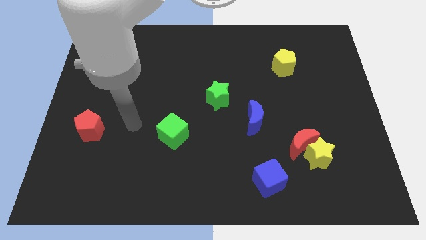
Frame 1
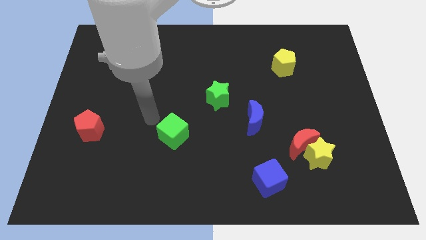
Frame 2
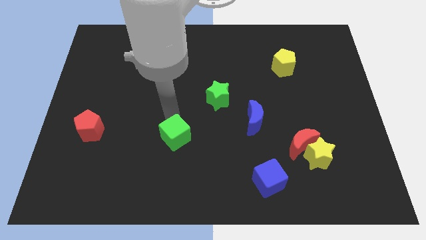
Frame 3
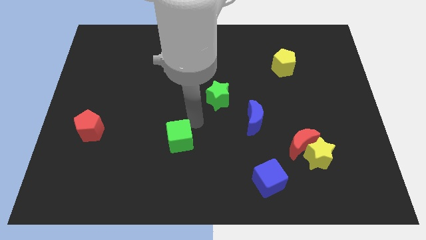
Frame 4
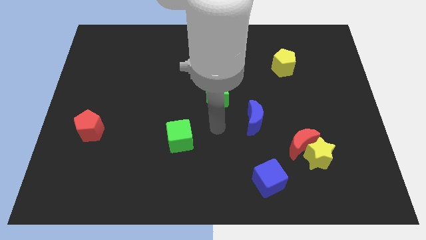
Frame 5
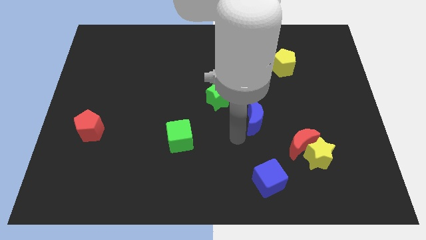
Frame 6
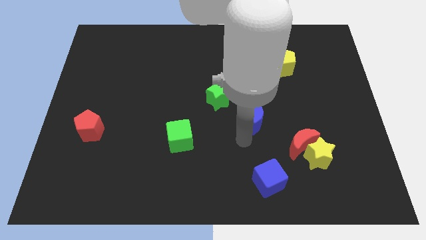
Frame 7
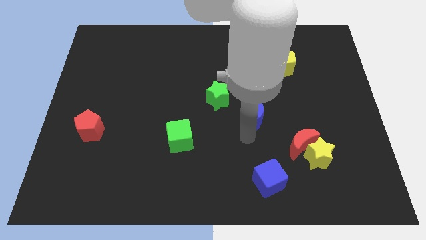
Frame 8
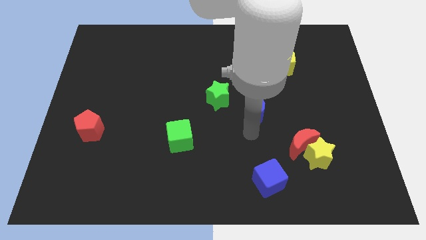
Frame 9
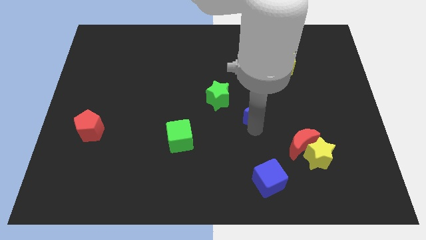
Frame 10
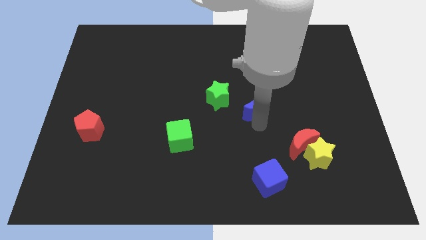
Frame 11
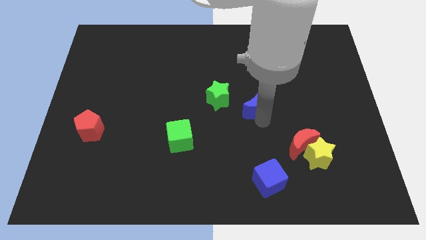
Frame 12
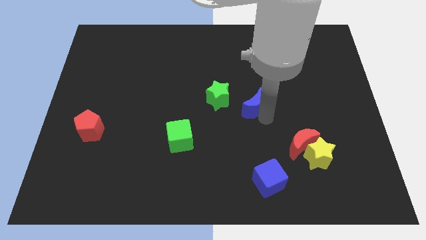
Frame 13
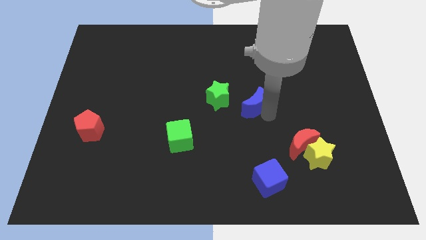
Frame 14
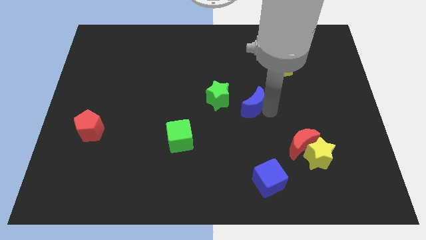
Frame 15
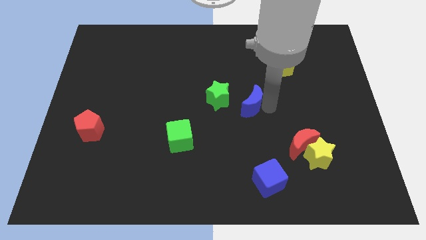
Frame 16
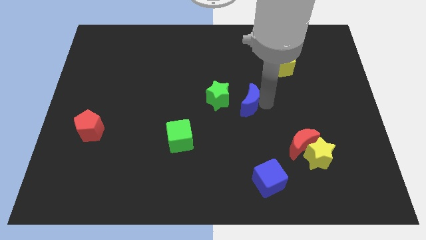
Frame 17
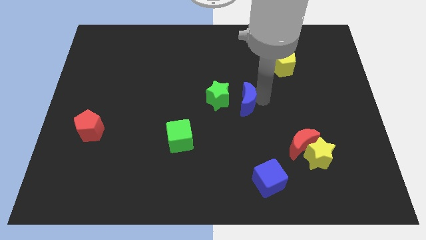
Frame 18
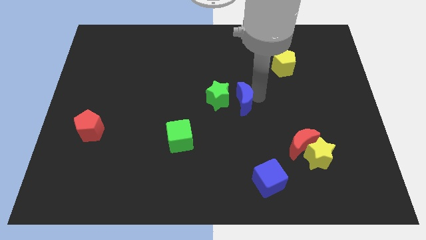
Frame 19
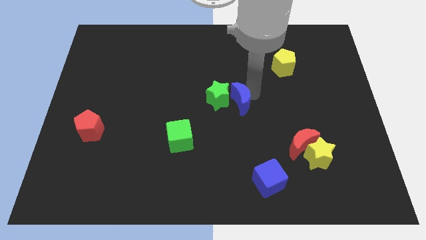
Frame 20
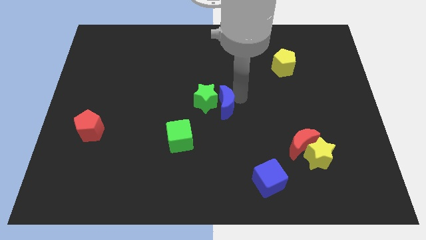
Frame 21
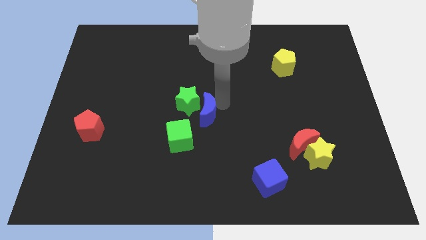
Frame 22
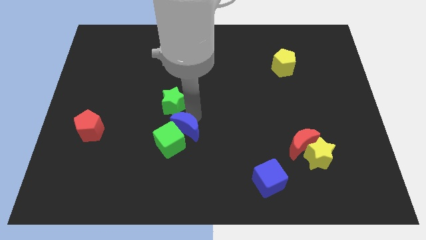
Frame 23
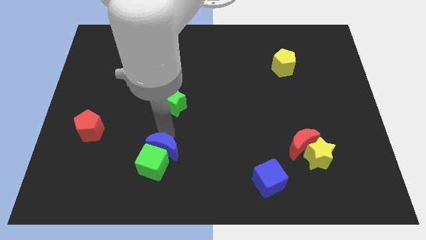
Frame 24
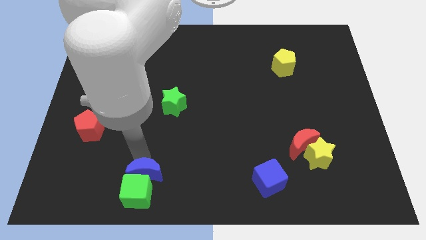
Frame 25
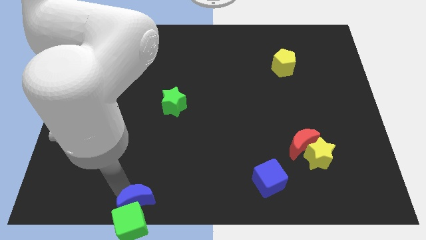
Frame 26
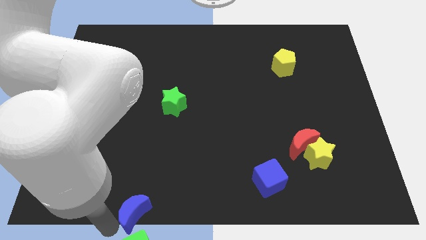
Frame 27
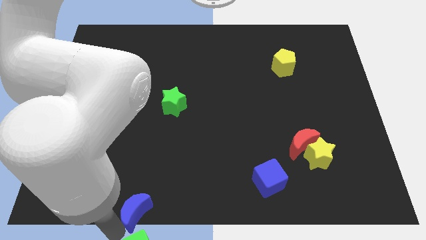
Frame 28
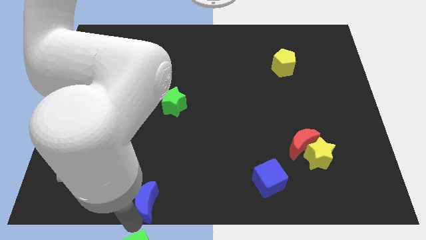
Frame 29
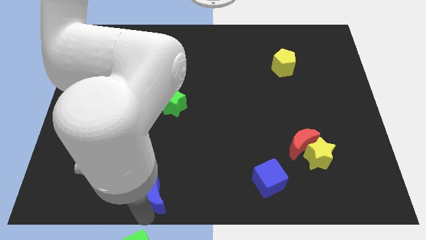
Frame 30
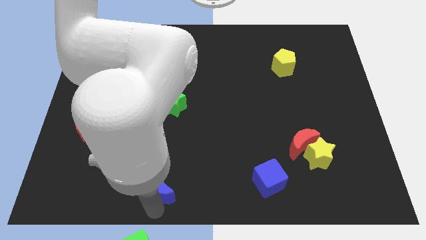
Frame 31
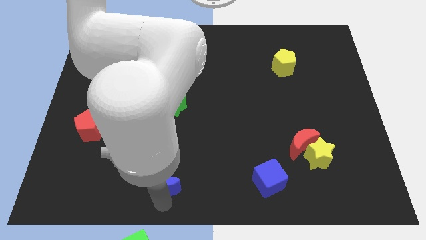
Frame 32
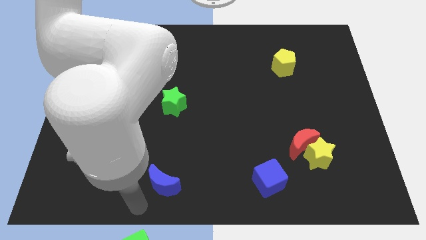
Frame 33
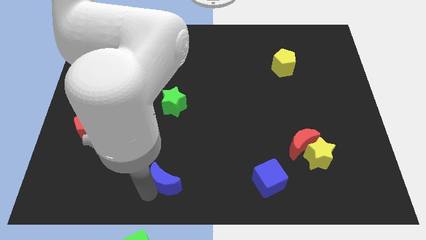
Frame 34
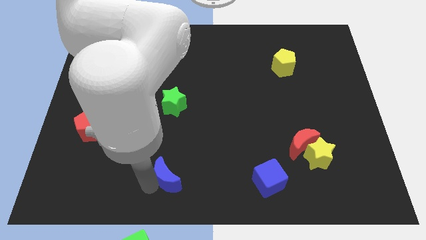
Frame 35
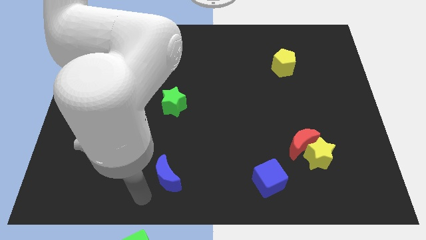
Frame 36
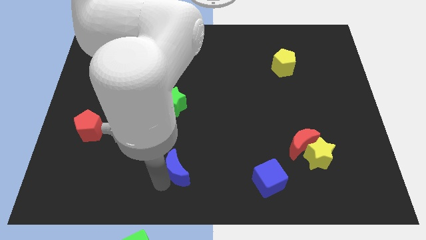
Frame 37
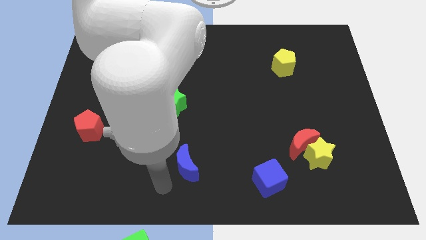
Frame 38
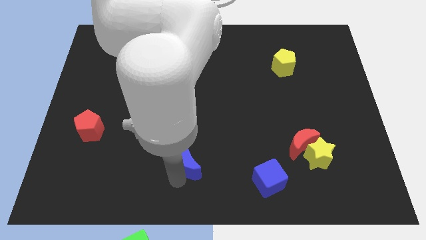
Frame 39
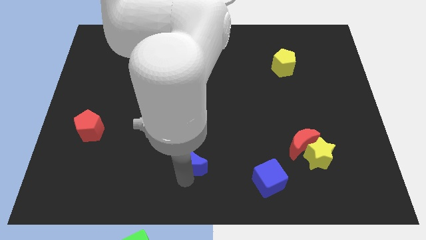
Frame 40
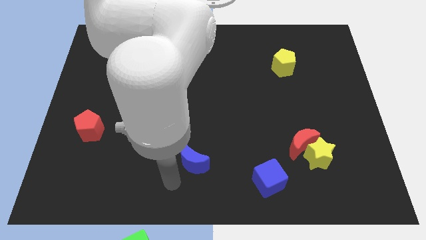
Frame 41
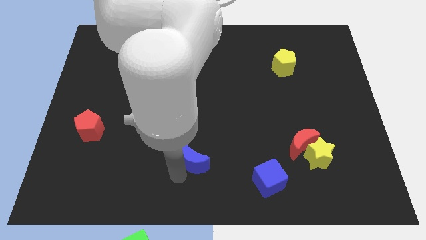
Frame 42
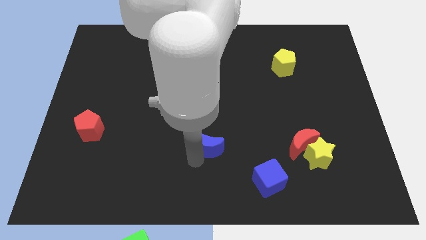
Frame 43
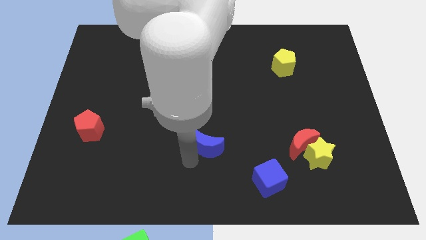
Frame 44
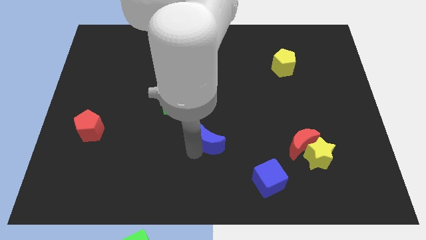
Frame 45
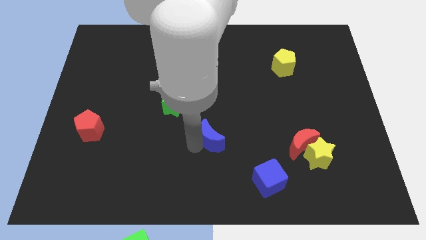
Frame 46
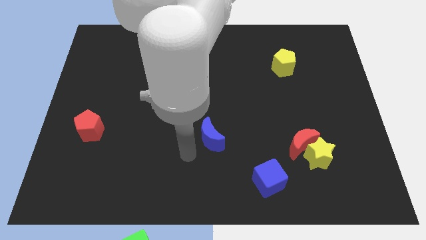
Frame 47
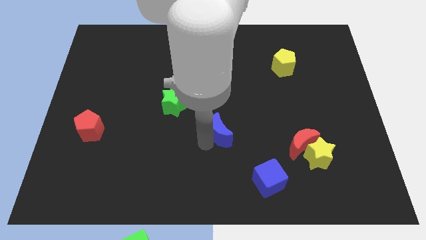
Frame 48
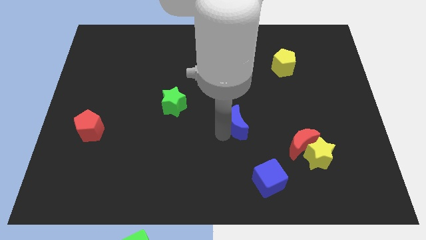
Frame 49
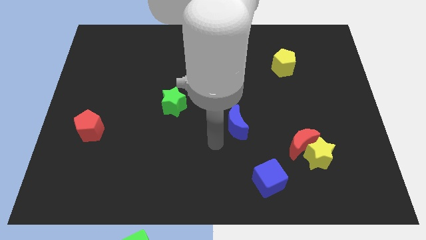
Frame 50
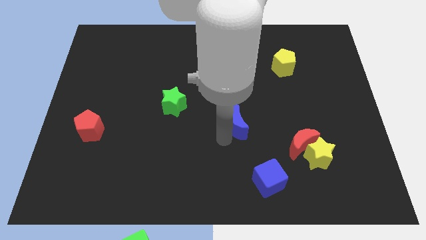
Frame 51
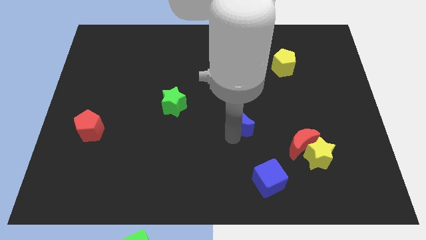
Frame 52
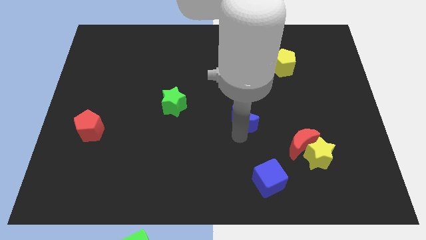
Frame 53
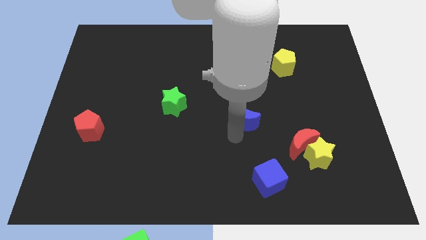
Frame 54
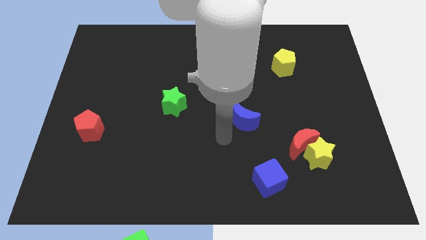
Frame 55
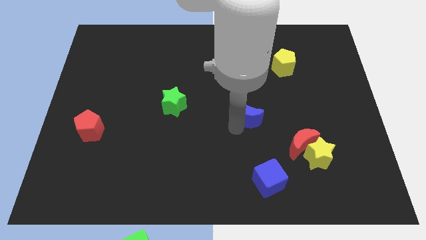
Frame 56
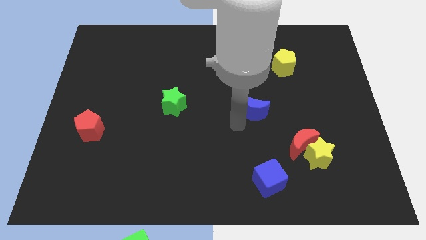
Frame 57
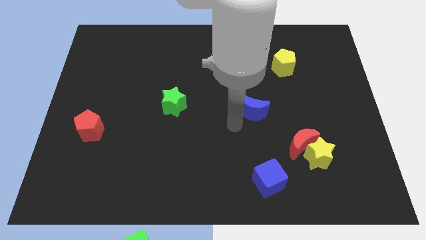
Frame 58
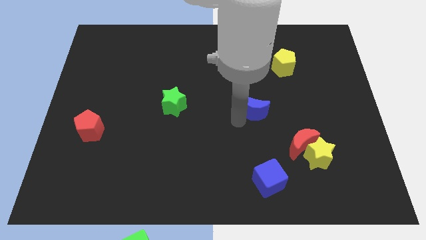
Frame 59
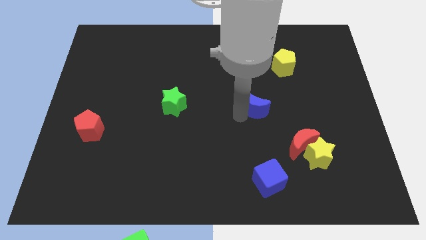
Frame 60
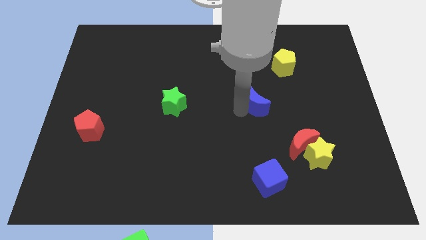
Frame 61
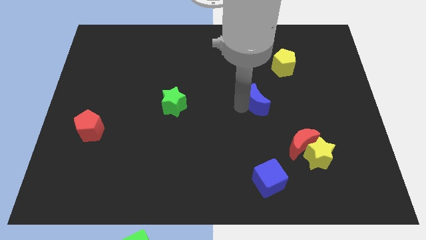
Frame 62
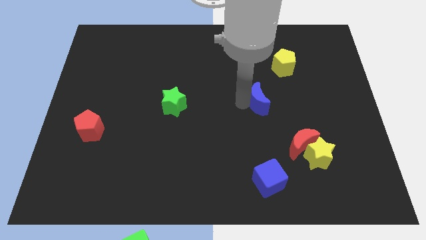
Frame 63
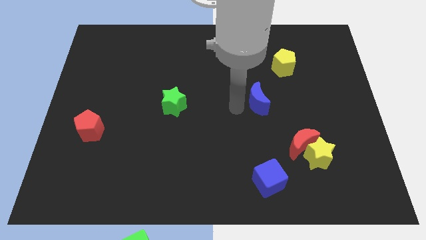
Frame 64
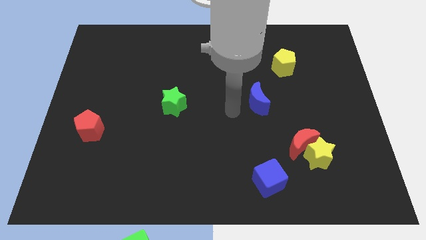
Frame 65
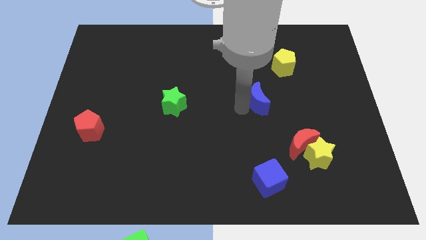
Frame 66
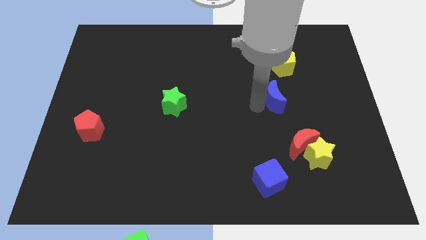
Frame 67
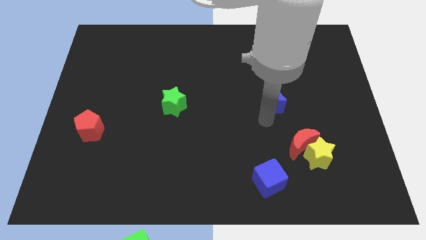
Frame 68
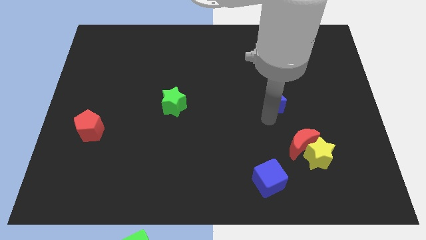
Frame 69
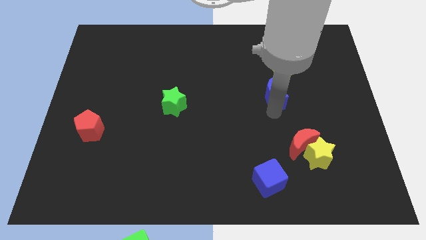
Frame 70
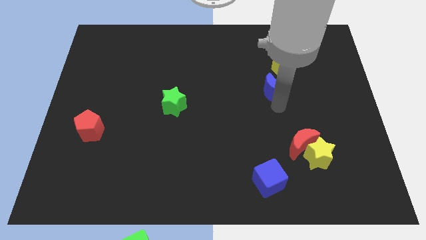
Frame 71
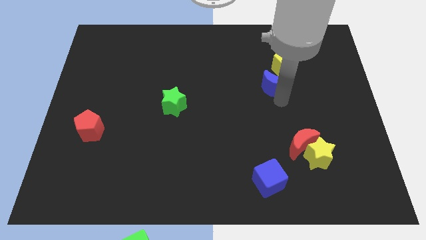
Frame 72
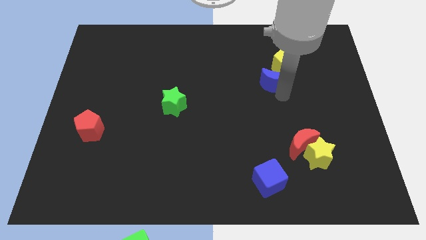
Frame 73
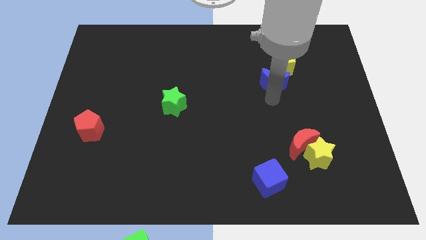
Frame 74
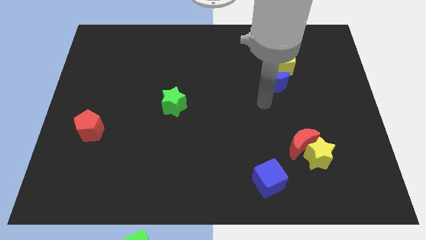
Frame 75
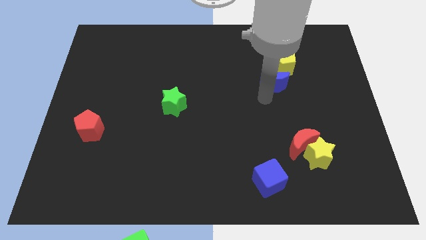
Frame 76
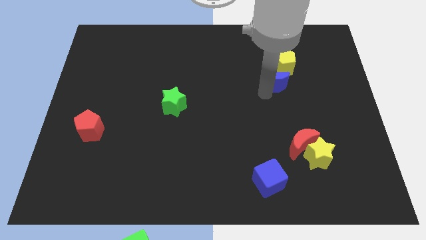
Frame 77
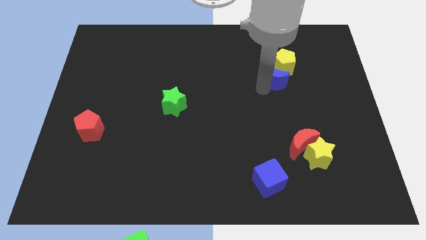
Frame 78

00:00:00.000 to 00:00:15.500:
push the blue moon to the yellow pentagon
